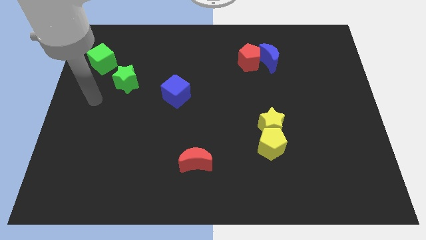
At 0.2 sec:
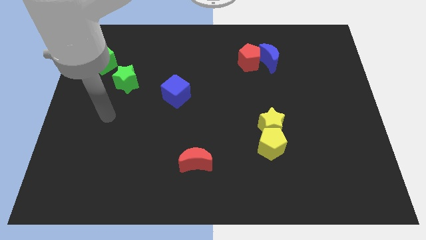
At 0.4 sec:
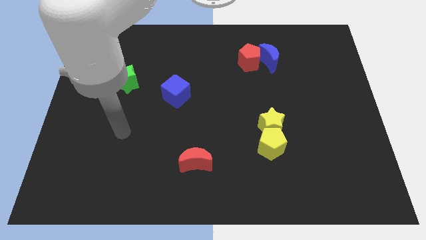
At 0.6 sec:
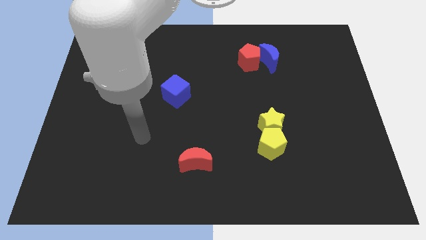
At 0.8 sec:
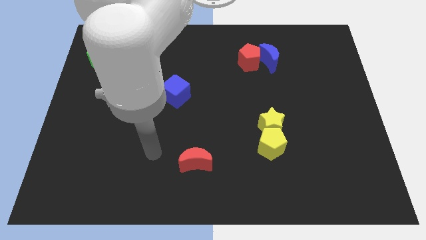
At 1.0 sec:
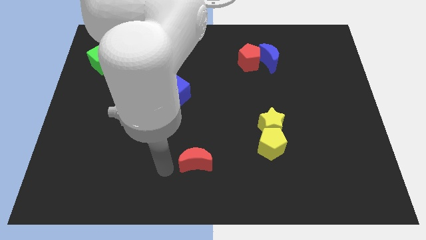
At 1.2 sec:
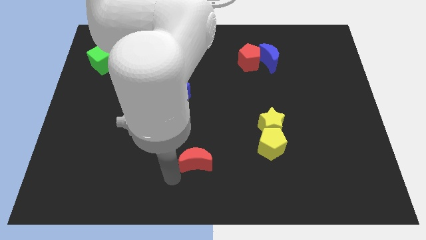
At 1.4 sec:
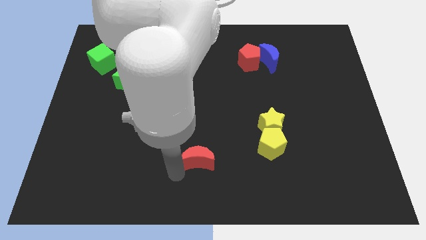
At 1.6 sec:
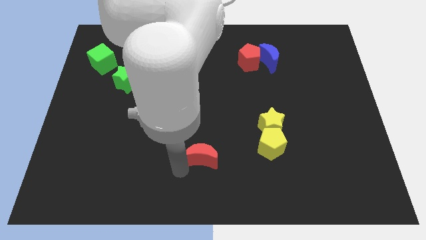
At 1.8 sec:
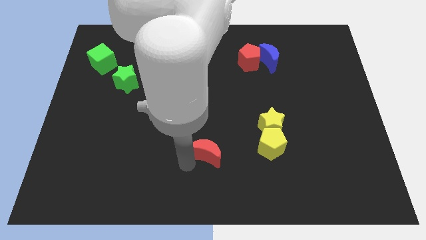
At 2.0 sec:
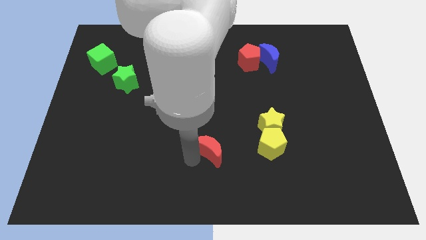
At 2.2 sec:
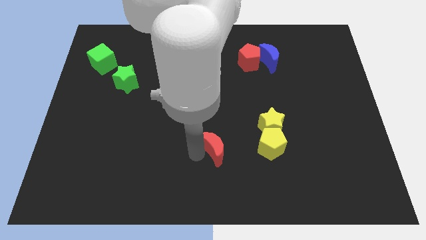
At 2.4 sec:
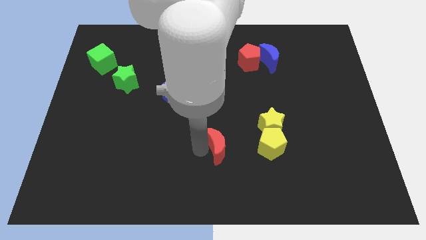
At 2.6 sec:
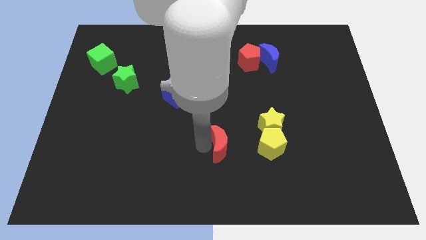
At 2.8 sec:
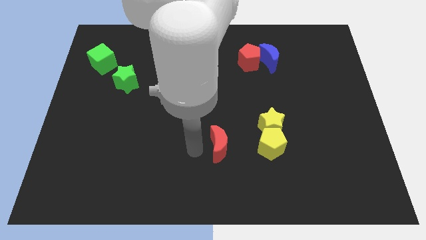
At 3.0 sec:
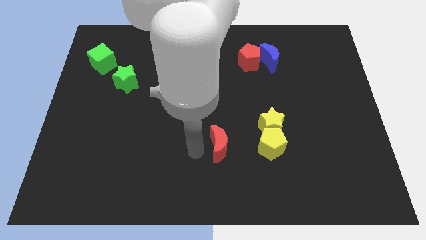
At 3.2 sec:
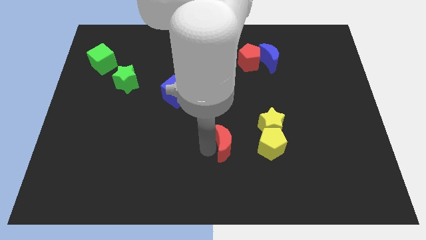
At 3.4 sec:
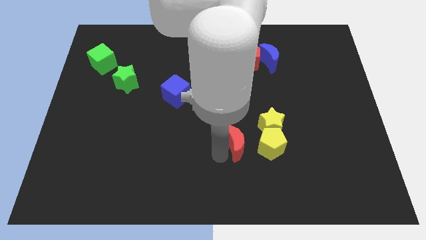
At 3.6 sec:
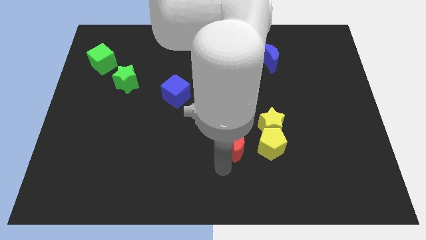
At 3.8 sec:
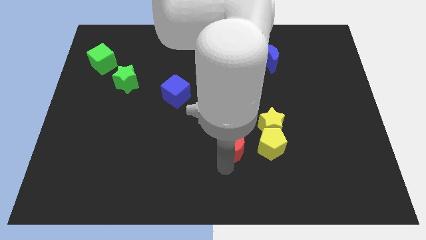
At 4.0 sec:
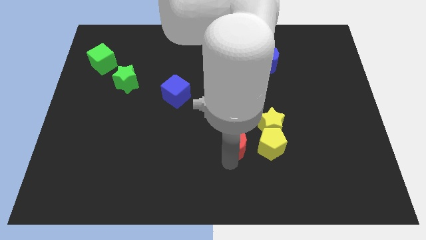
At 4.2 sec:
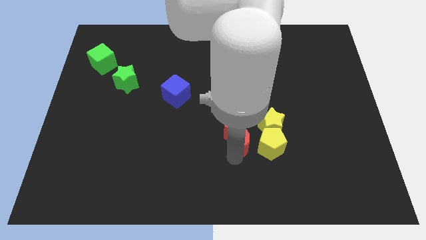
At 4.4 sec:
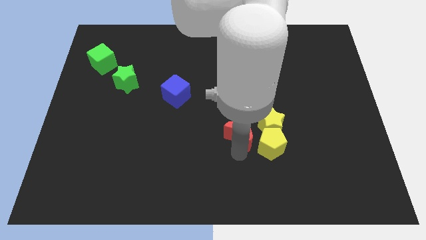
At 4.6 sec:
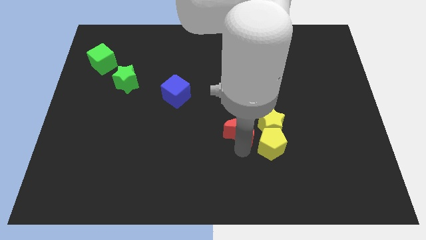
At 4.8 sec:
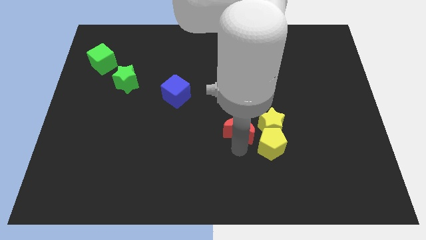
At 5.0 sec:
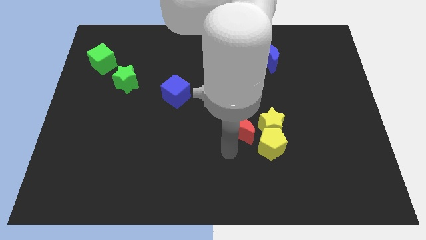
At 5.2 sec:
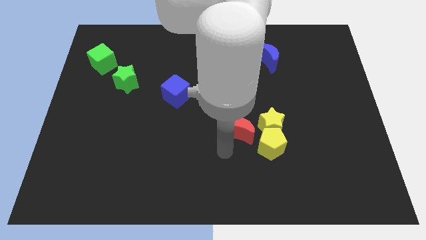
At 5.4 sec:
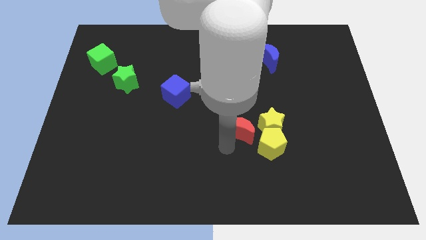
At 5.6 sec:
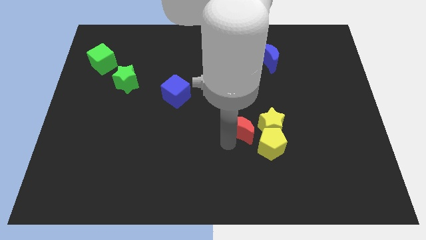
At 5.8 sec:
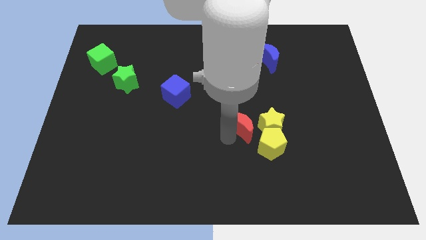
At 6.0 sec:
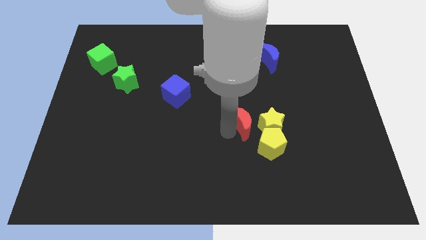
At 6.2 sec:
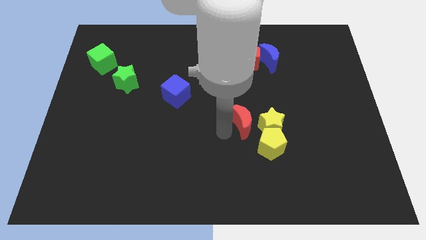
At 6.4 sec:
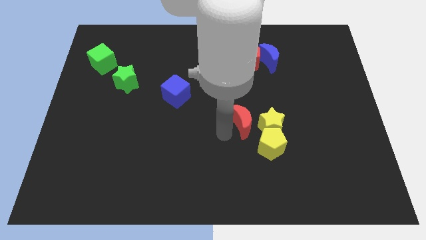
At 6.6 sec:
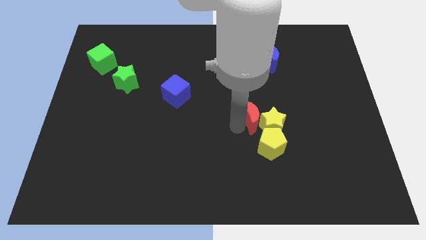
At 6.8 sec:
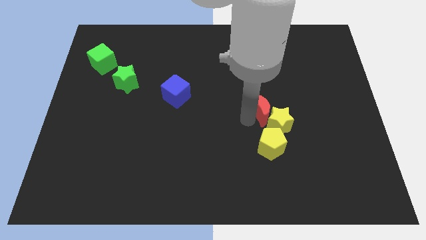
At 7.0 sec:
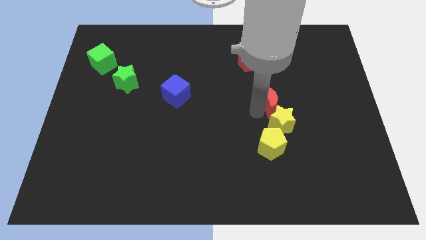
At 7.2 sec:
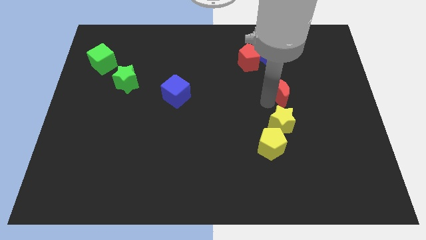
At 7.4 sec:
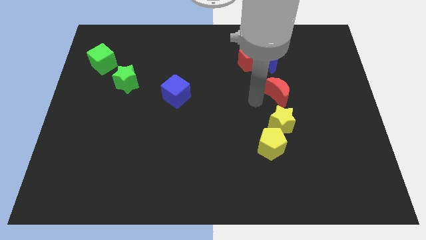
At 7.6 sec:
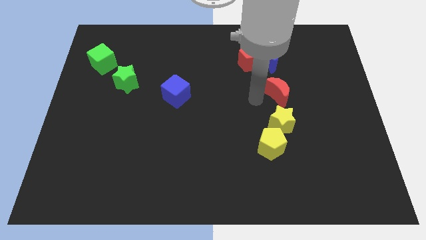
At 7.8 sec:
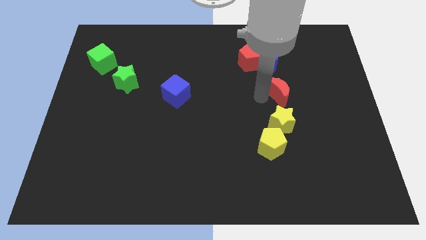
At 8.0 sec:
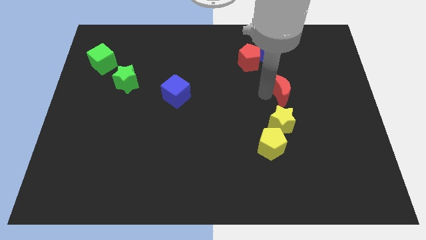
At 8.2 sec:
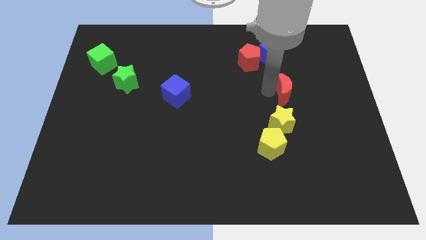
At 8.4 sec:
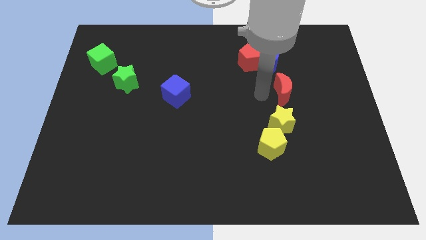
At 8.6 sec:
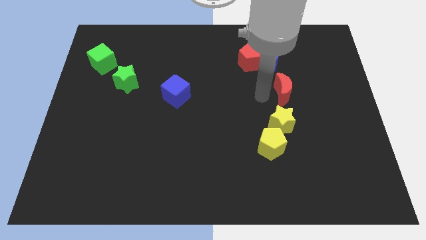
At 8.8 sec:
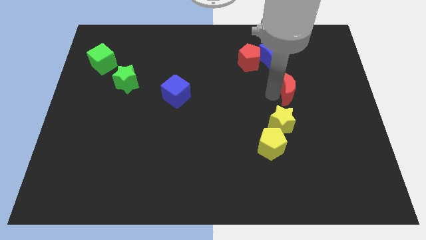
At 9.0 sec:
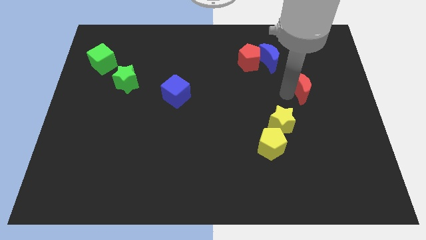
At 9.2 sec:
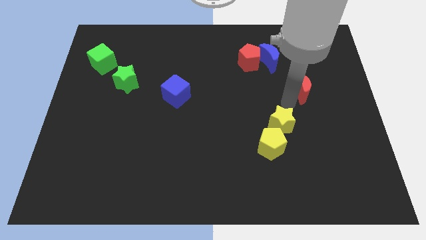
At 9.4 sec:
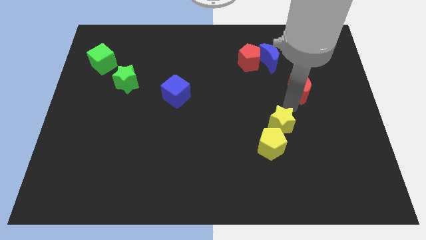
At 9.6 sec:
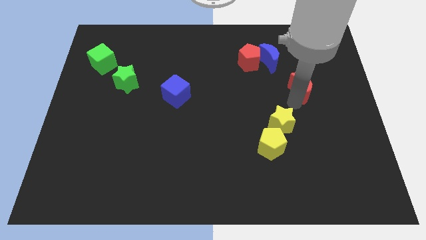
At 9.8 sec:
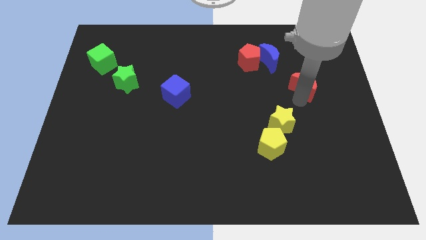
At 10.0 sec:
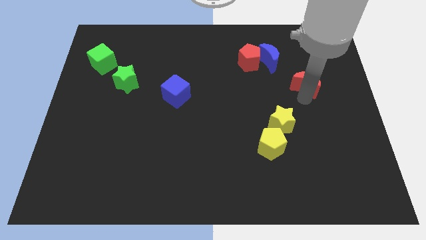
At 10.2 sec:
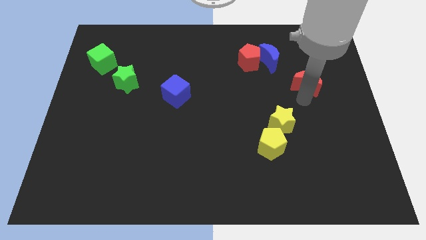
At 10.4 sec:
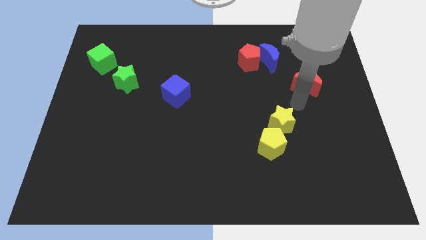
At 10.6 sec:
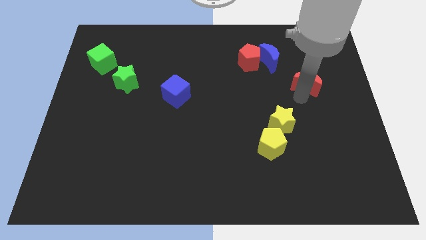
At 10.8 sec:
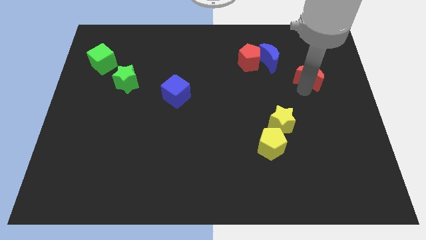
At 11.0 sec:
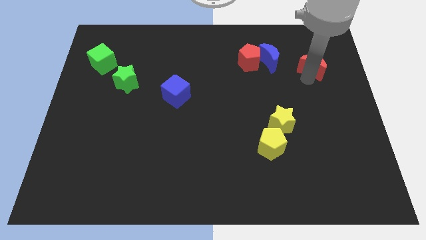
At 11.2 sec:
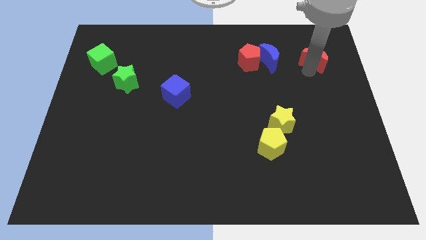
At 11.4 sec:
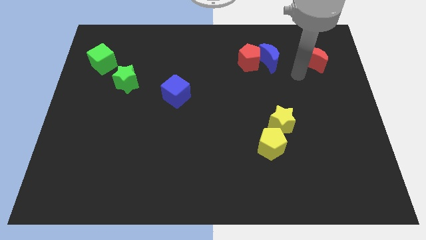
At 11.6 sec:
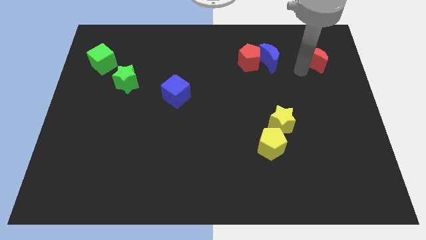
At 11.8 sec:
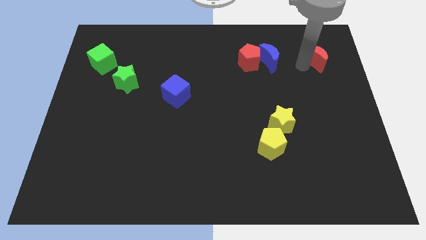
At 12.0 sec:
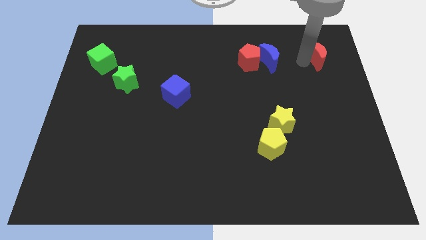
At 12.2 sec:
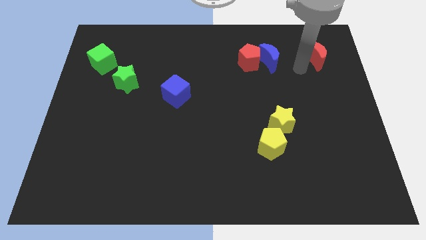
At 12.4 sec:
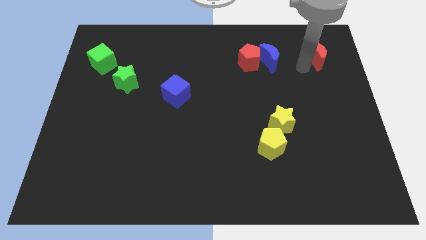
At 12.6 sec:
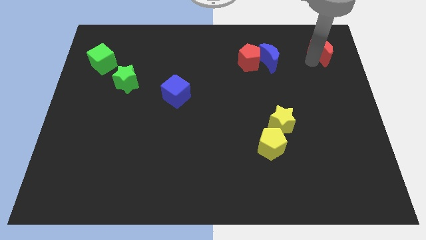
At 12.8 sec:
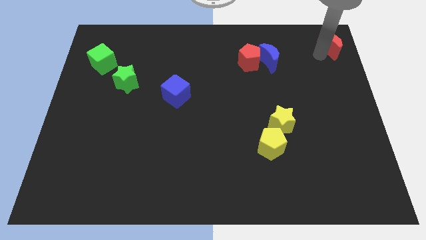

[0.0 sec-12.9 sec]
push the red moon to the top right corner
